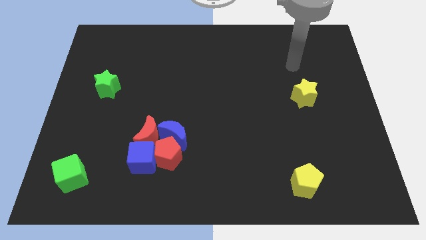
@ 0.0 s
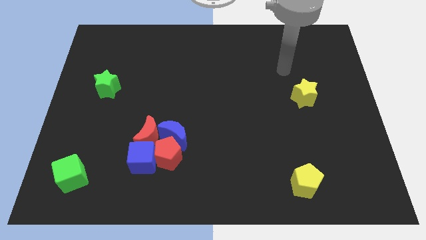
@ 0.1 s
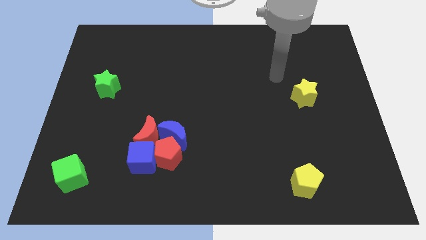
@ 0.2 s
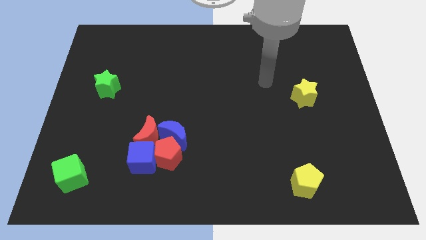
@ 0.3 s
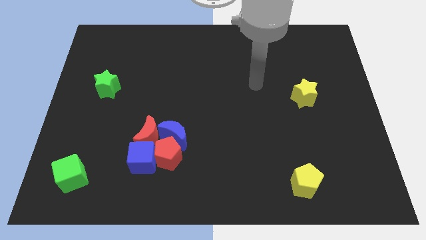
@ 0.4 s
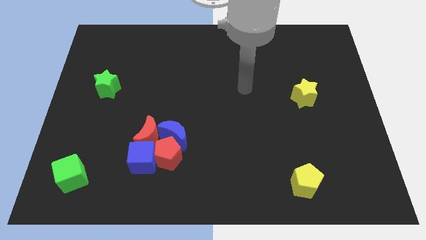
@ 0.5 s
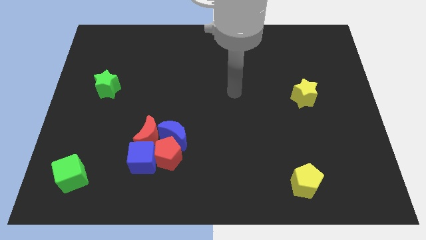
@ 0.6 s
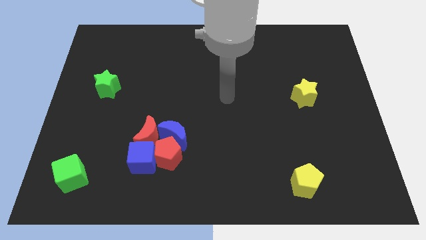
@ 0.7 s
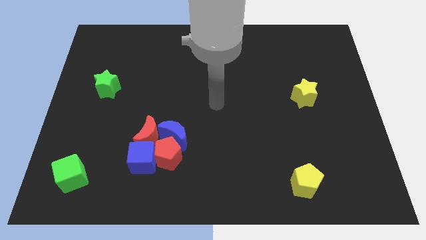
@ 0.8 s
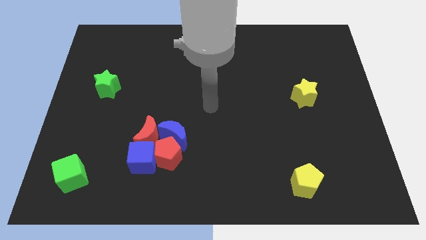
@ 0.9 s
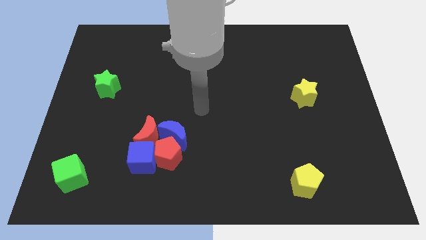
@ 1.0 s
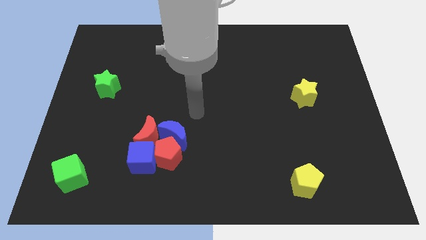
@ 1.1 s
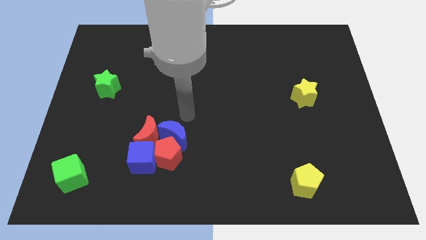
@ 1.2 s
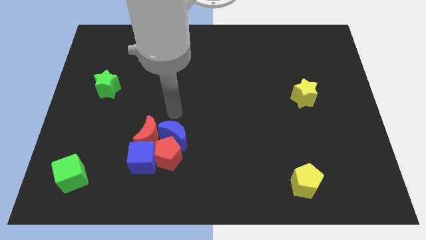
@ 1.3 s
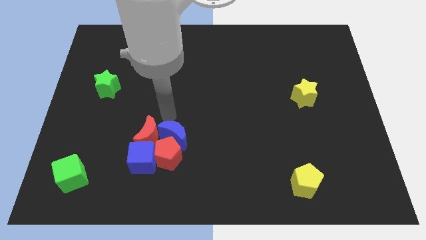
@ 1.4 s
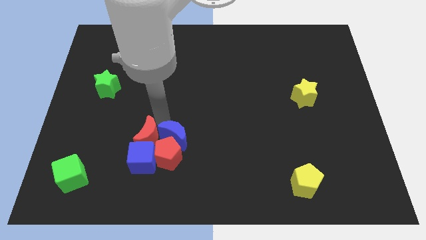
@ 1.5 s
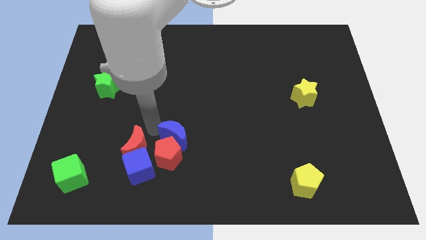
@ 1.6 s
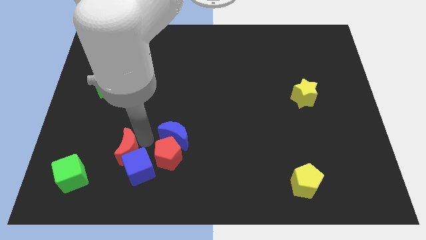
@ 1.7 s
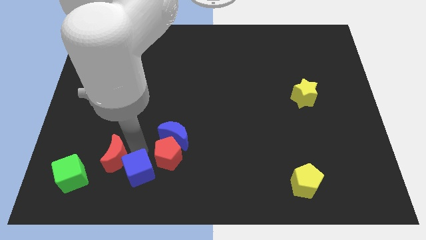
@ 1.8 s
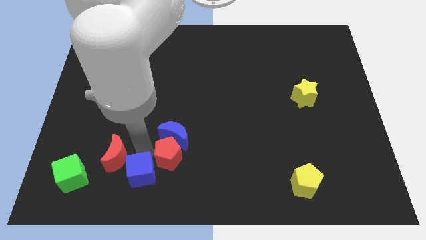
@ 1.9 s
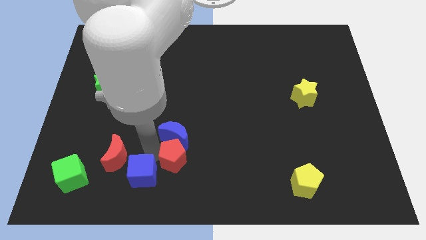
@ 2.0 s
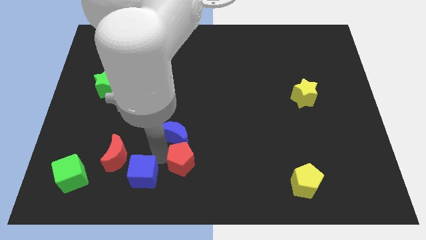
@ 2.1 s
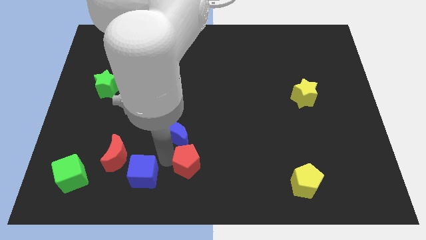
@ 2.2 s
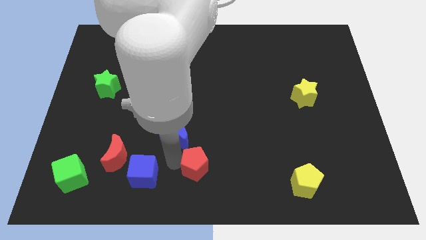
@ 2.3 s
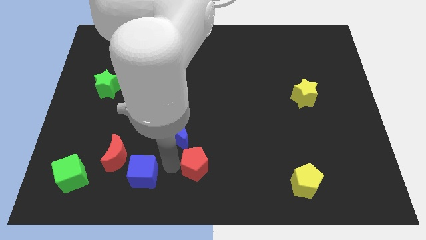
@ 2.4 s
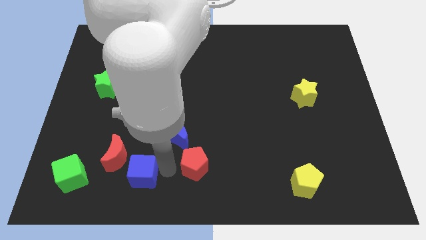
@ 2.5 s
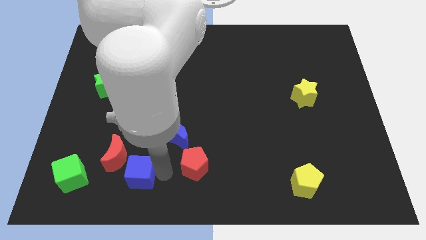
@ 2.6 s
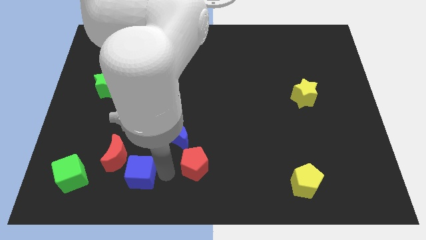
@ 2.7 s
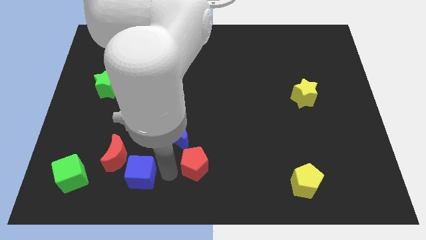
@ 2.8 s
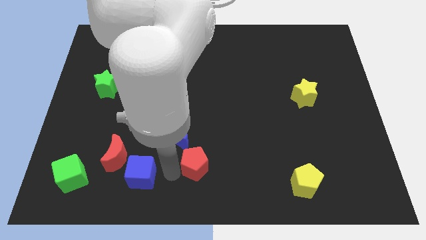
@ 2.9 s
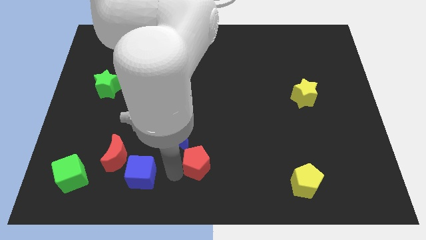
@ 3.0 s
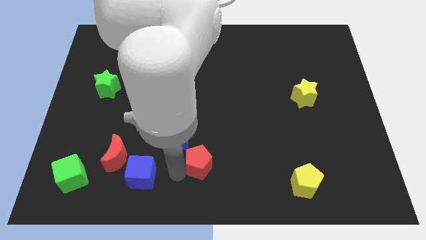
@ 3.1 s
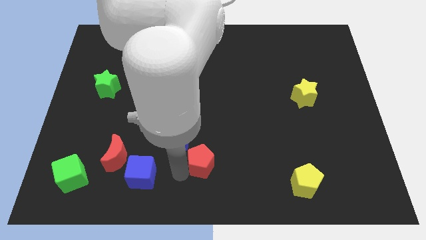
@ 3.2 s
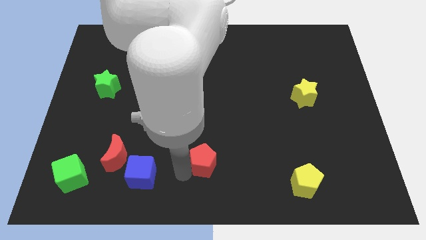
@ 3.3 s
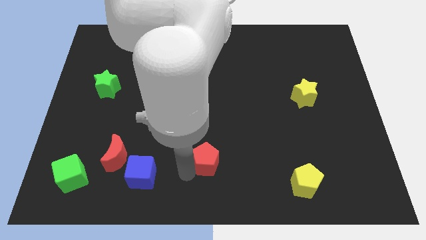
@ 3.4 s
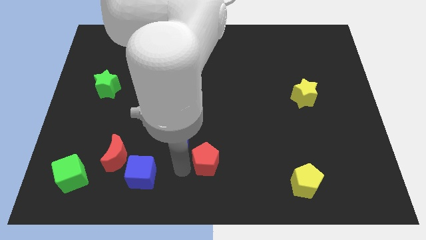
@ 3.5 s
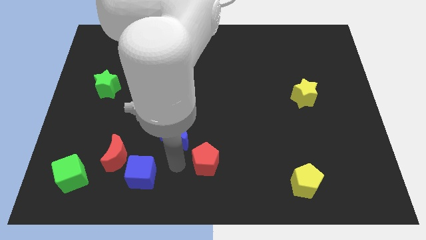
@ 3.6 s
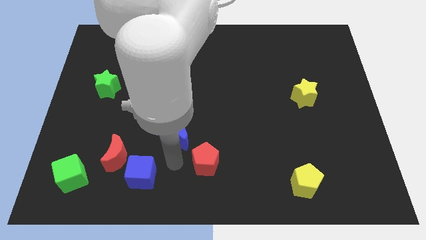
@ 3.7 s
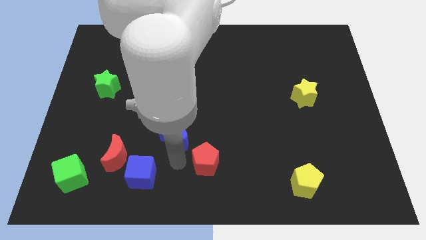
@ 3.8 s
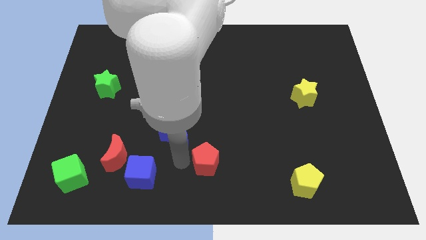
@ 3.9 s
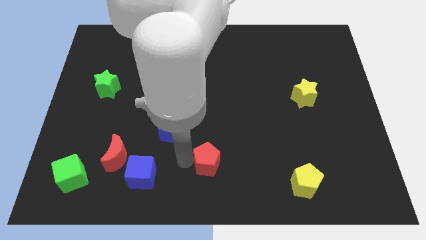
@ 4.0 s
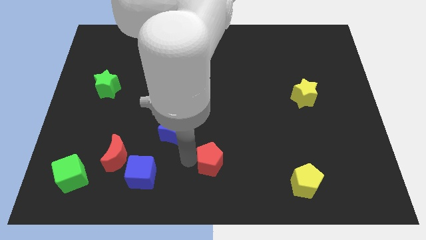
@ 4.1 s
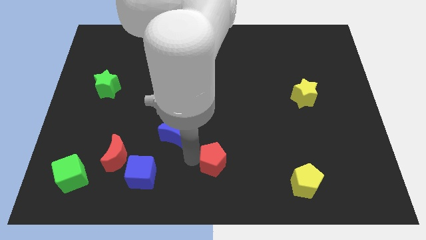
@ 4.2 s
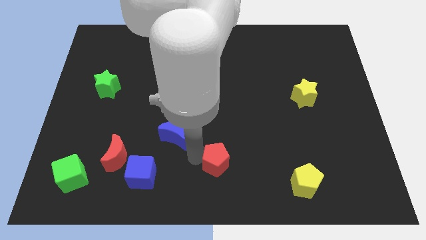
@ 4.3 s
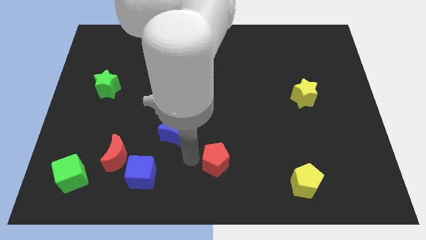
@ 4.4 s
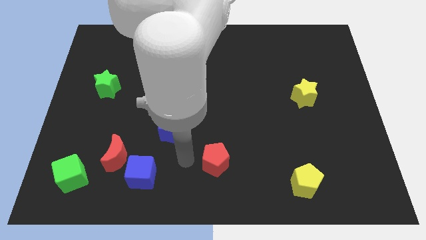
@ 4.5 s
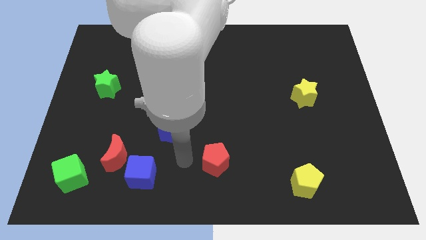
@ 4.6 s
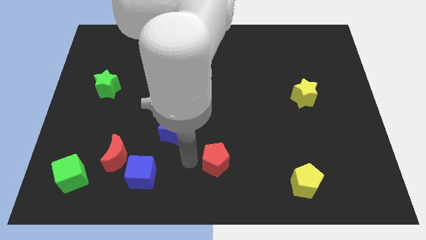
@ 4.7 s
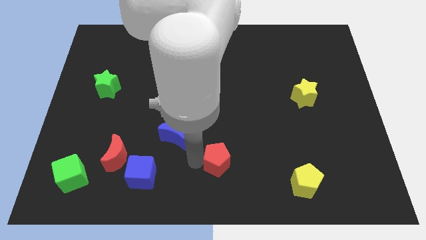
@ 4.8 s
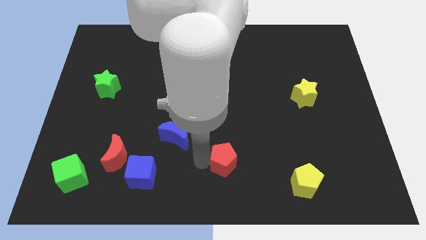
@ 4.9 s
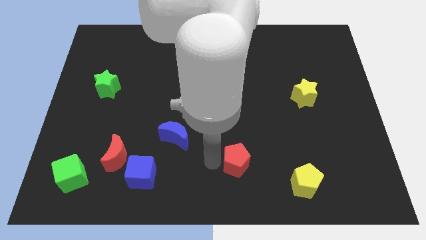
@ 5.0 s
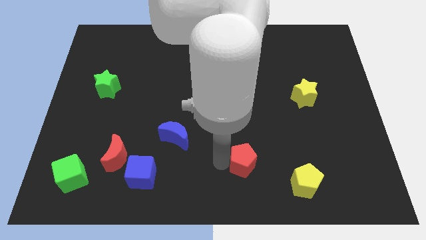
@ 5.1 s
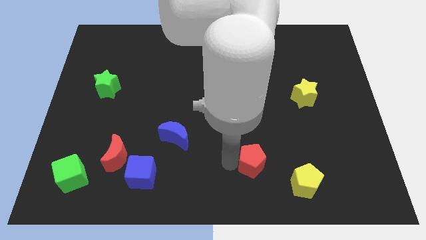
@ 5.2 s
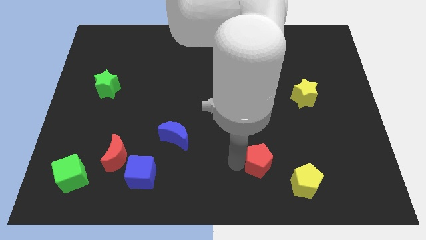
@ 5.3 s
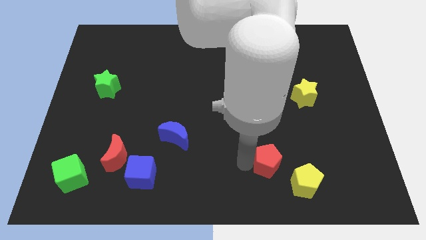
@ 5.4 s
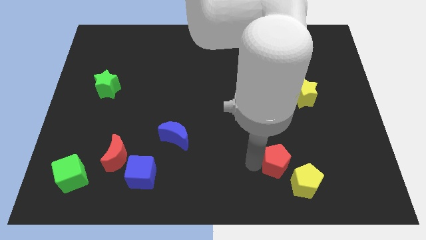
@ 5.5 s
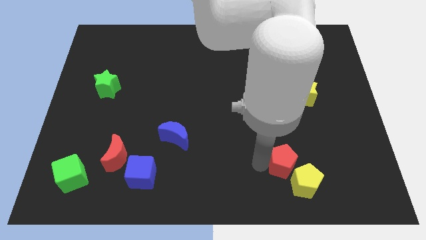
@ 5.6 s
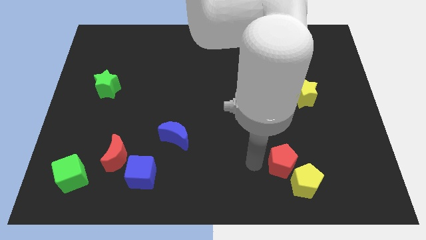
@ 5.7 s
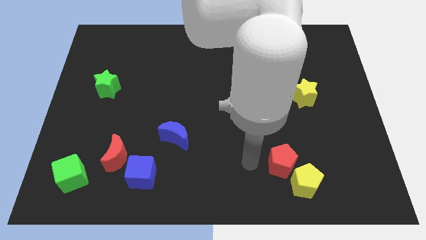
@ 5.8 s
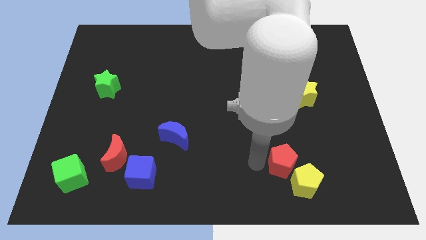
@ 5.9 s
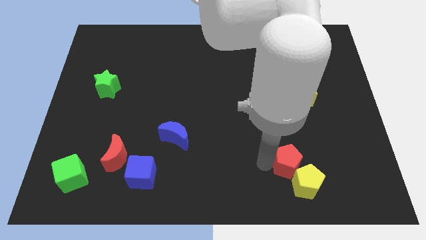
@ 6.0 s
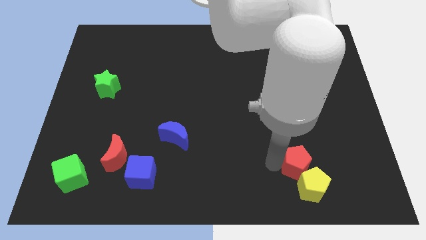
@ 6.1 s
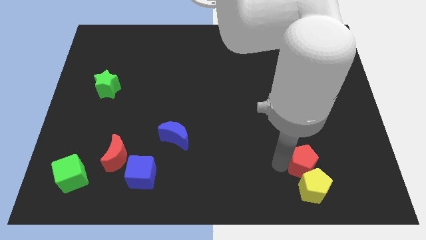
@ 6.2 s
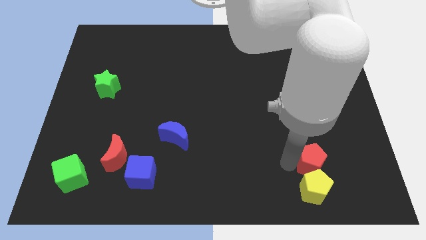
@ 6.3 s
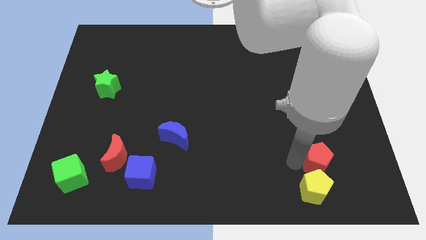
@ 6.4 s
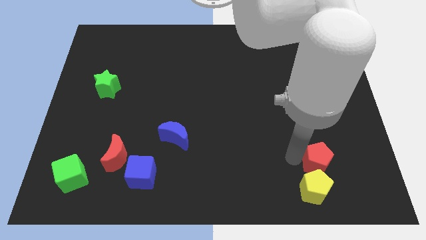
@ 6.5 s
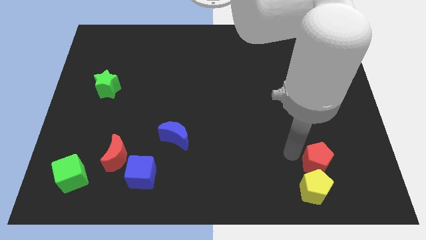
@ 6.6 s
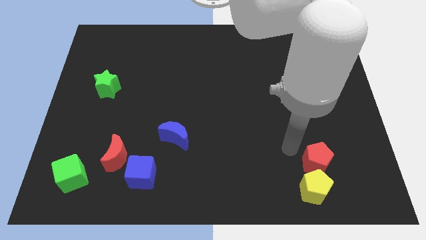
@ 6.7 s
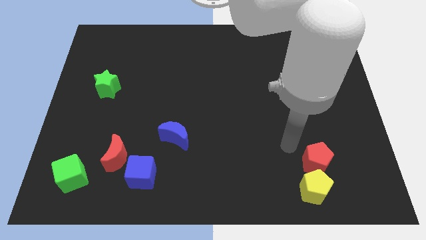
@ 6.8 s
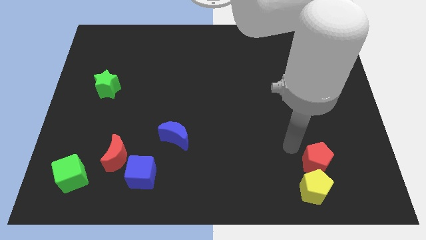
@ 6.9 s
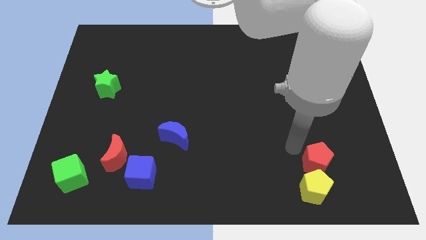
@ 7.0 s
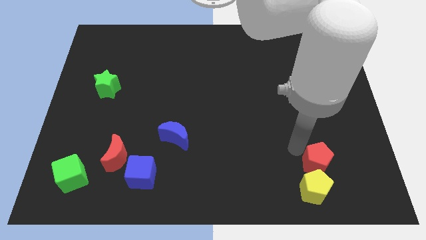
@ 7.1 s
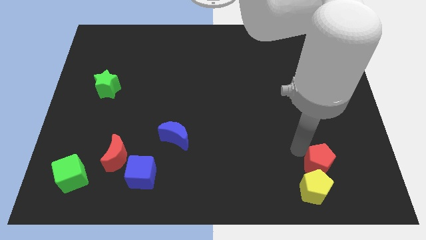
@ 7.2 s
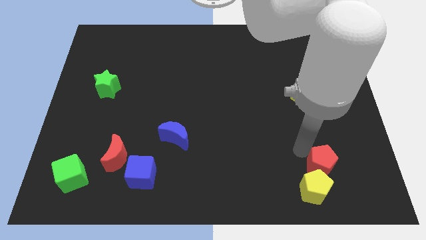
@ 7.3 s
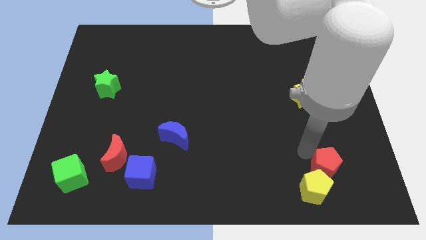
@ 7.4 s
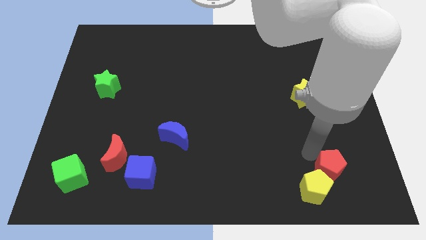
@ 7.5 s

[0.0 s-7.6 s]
push the red pentagon just right of the yellow pentagon
